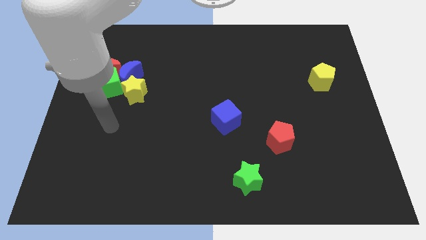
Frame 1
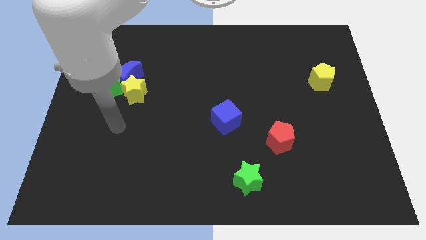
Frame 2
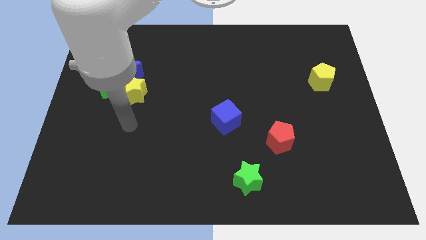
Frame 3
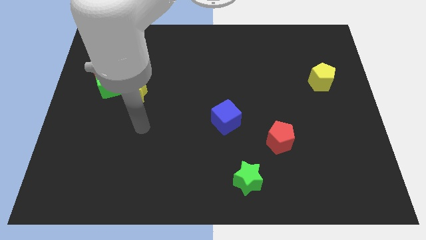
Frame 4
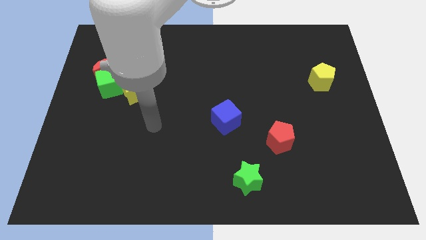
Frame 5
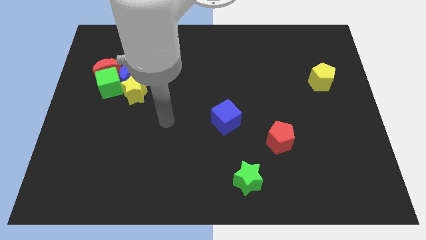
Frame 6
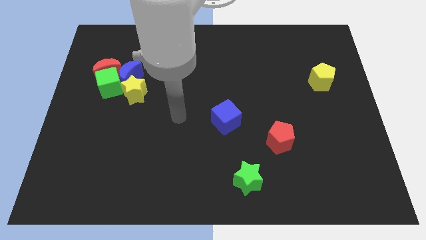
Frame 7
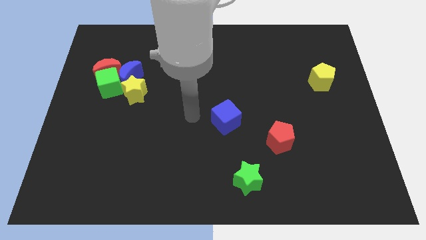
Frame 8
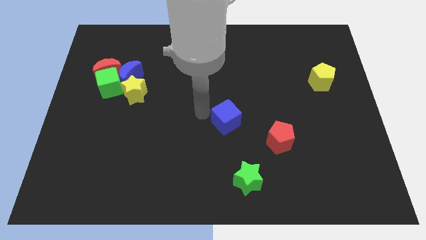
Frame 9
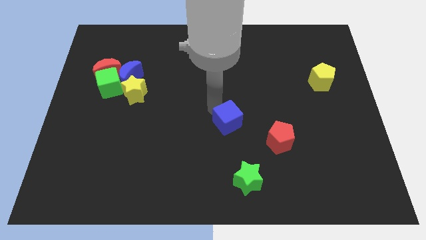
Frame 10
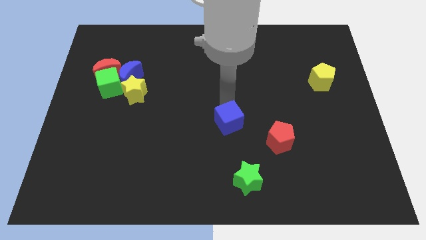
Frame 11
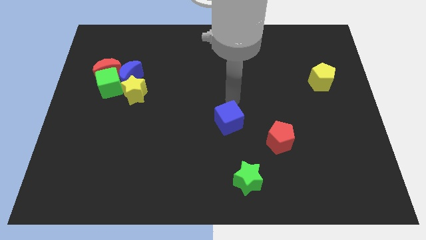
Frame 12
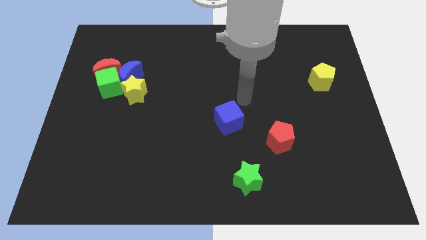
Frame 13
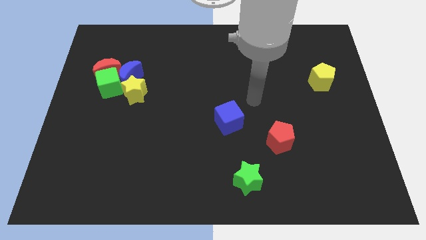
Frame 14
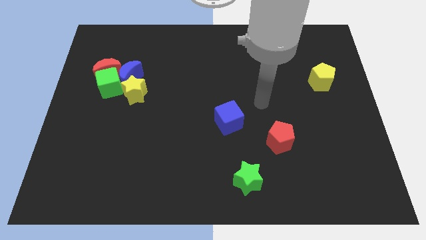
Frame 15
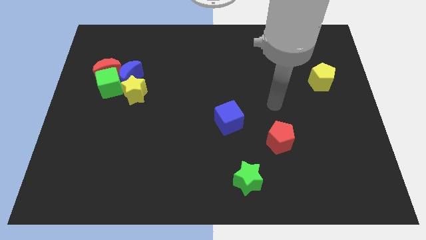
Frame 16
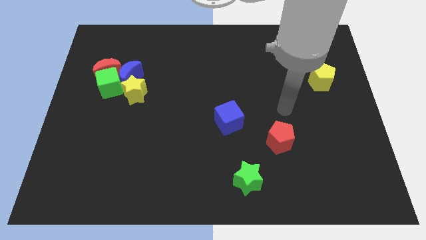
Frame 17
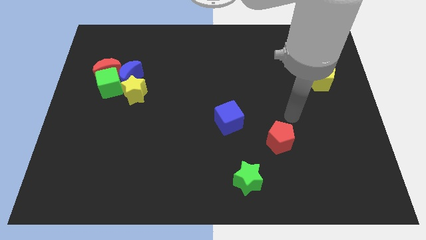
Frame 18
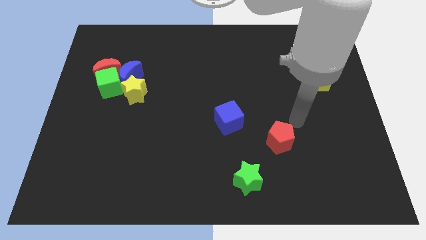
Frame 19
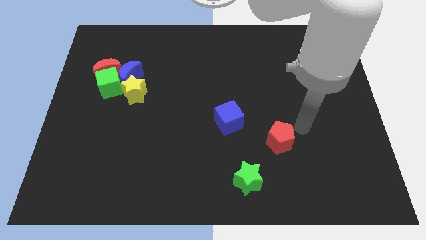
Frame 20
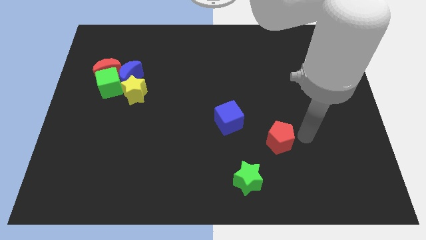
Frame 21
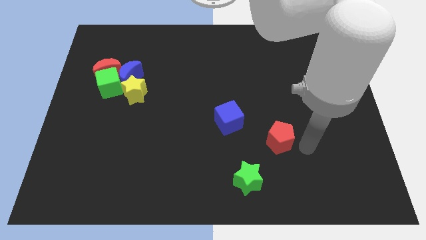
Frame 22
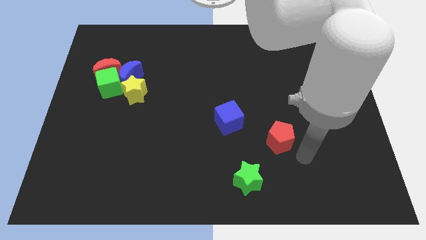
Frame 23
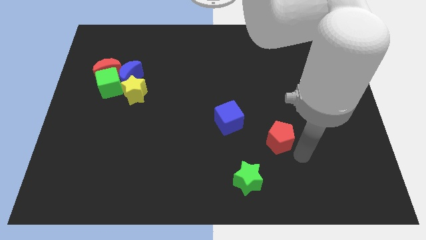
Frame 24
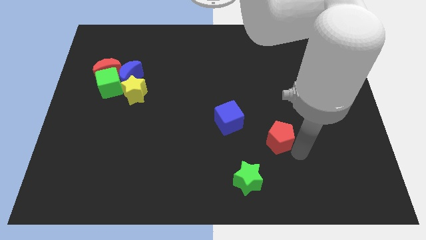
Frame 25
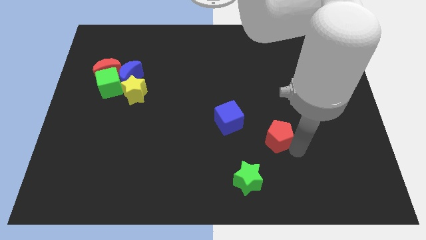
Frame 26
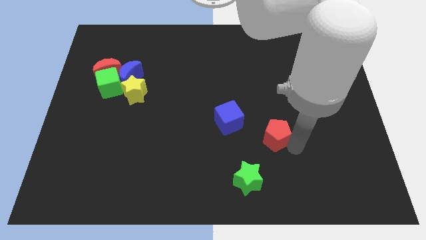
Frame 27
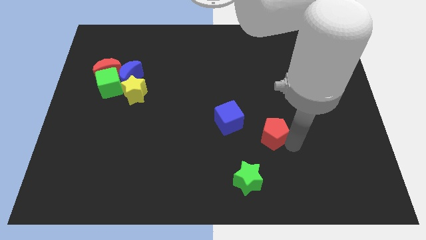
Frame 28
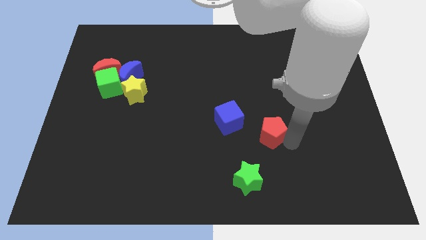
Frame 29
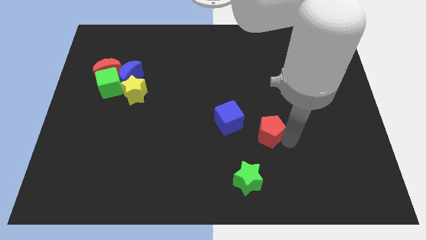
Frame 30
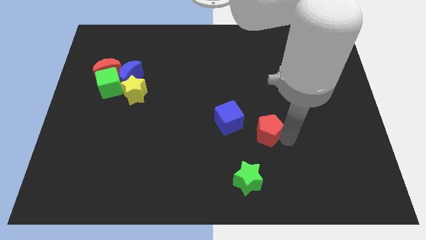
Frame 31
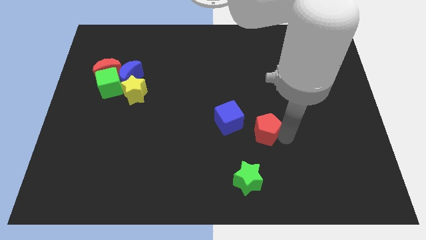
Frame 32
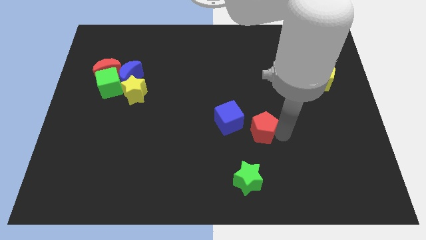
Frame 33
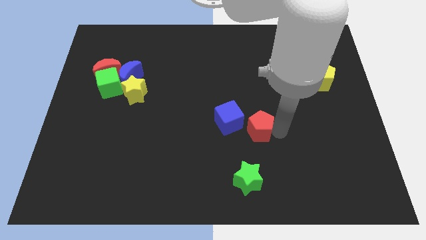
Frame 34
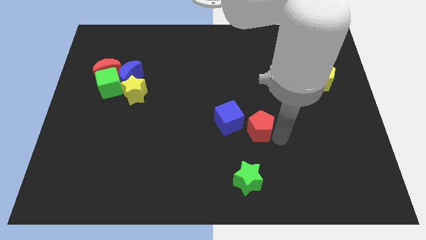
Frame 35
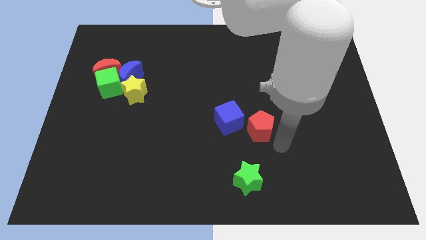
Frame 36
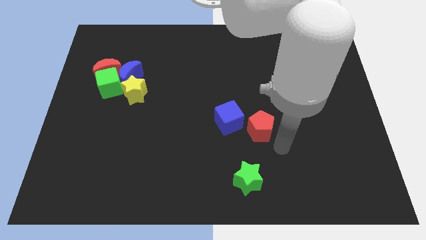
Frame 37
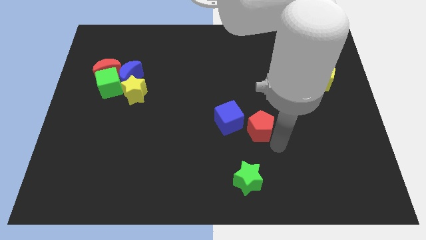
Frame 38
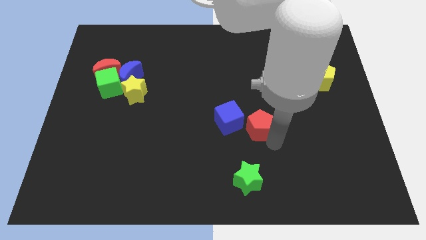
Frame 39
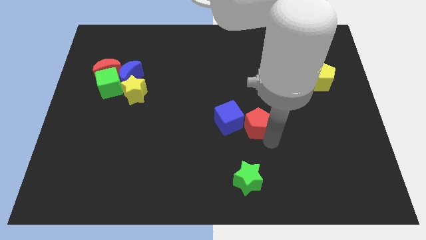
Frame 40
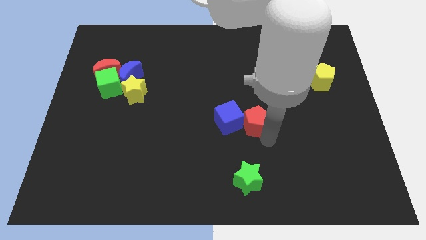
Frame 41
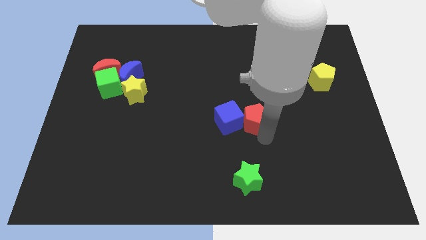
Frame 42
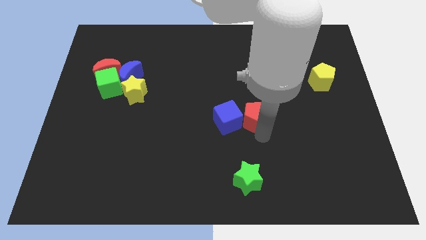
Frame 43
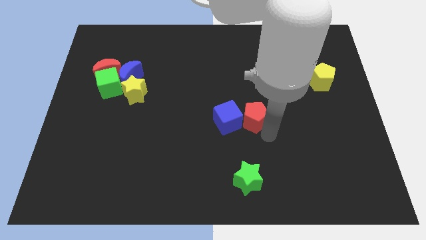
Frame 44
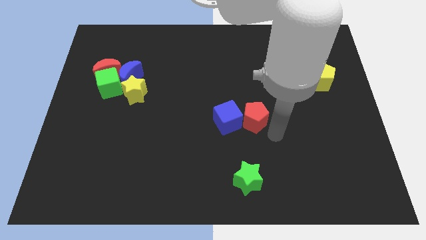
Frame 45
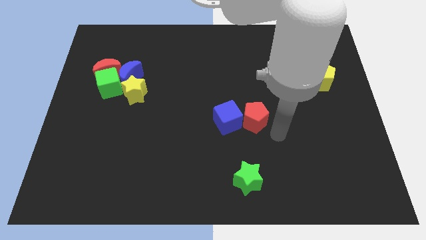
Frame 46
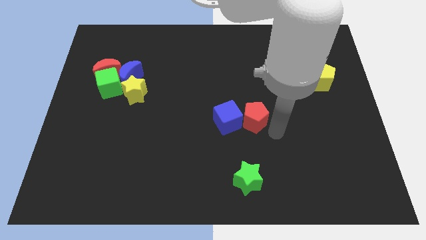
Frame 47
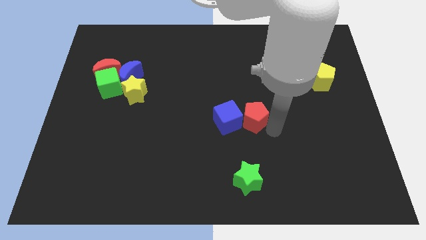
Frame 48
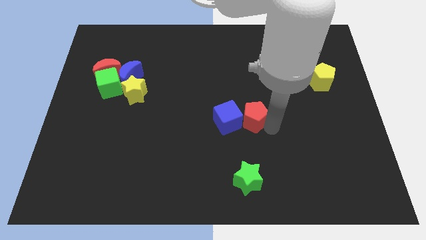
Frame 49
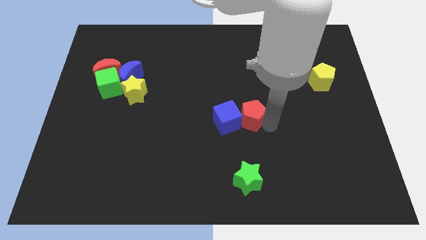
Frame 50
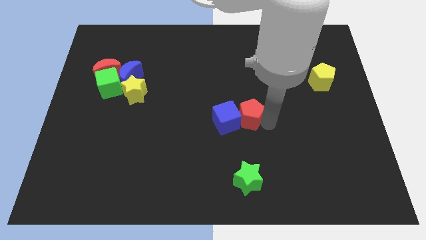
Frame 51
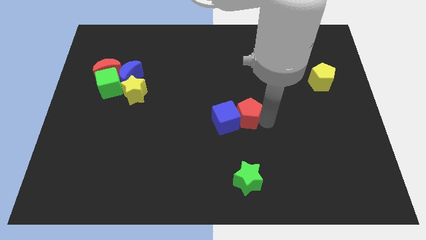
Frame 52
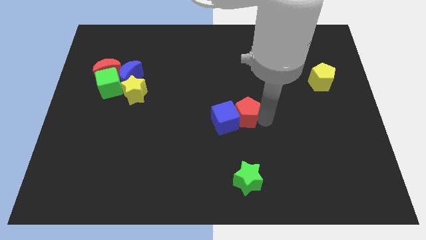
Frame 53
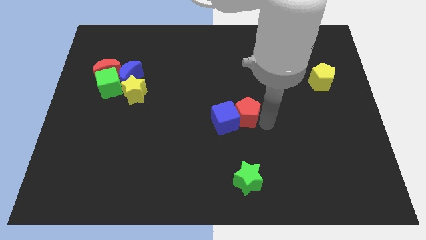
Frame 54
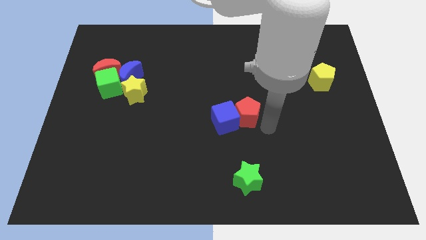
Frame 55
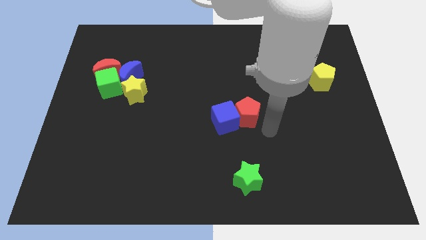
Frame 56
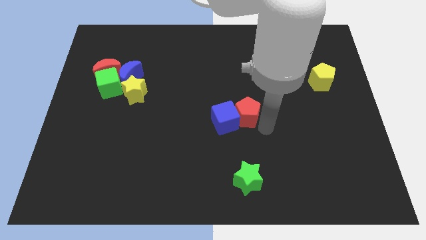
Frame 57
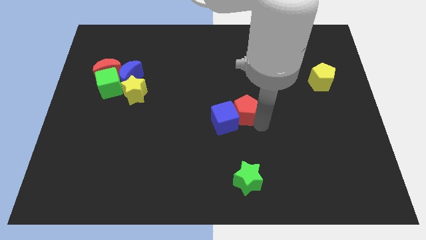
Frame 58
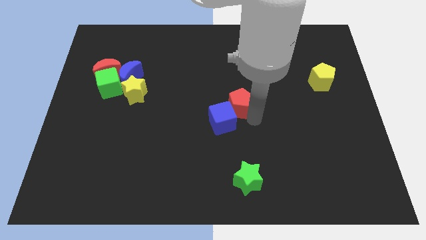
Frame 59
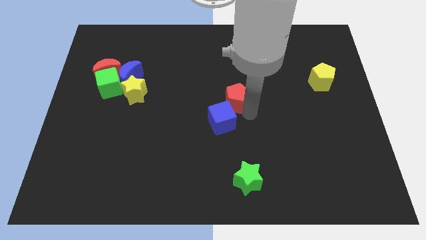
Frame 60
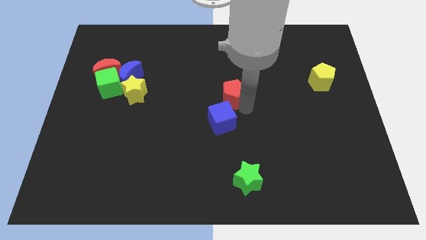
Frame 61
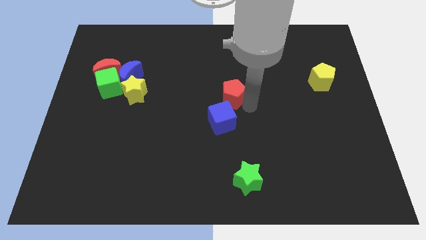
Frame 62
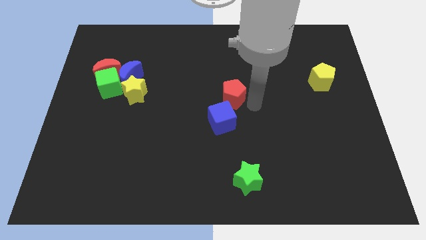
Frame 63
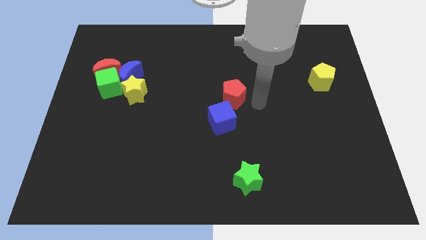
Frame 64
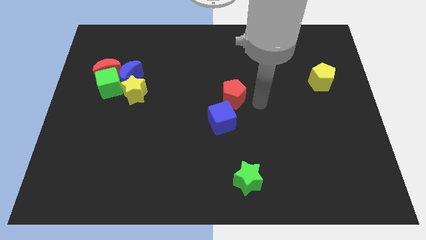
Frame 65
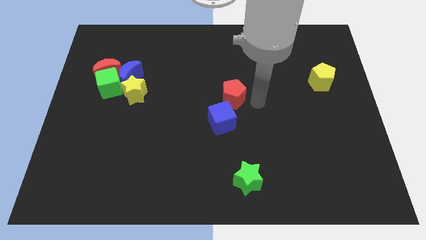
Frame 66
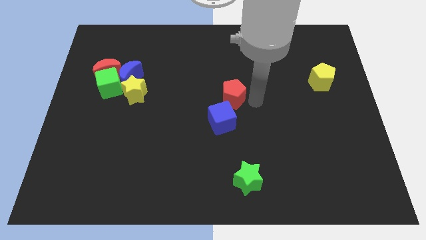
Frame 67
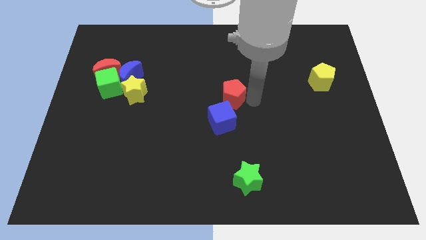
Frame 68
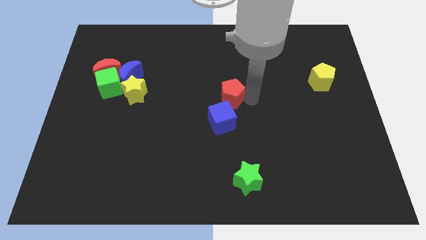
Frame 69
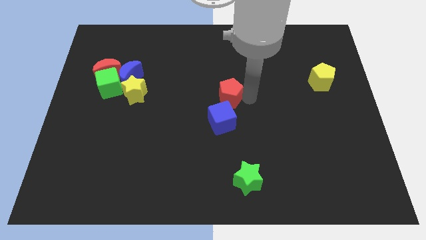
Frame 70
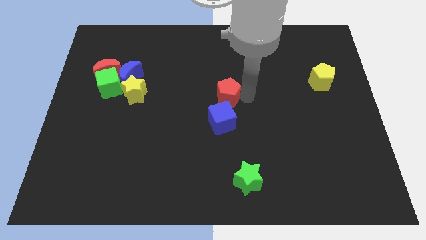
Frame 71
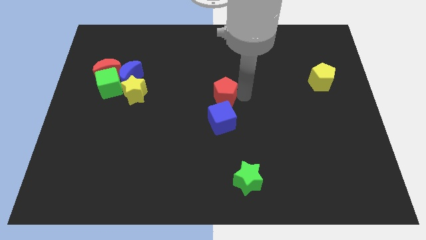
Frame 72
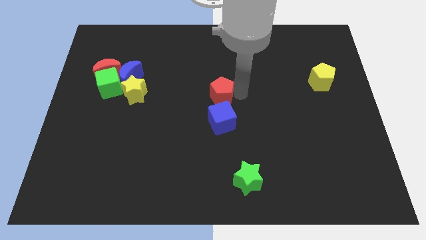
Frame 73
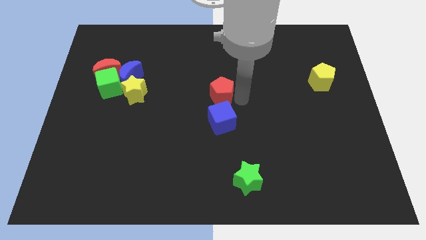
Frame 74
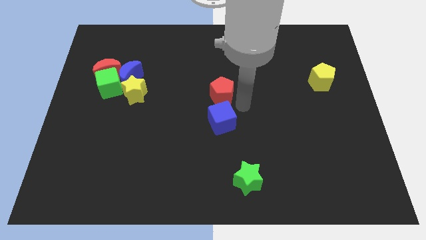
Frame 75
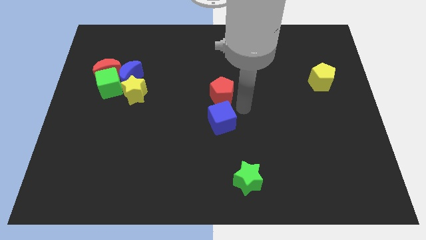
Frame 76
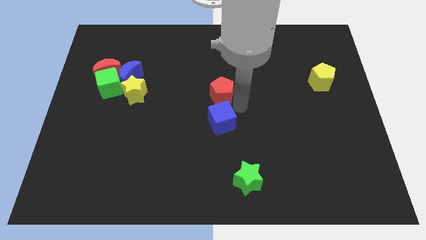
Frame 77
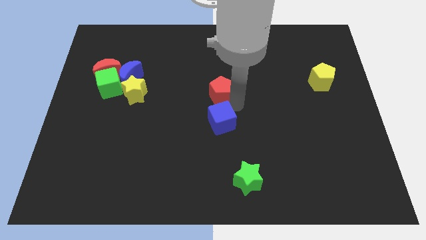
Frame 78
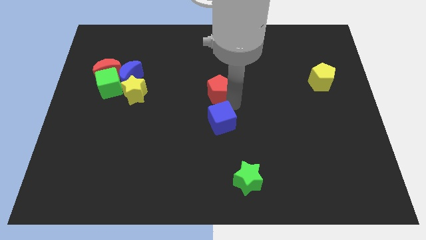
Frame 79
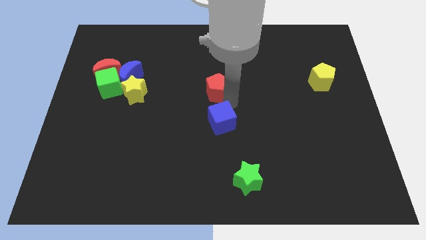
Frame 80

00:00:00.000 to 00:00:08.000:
slide the red pentagon up and left diagonally
